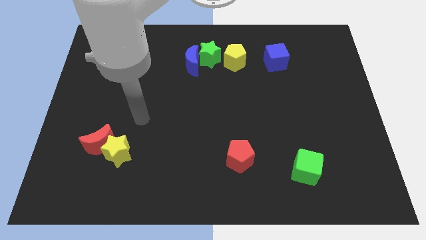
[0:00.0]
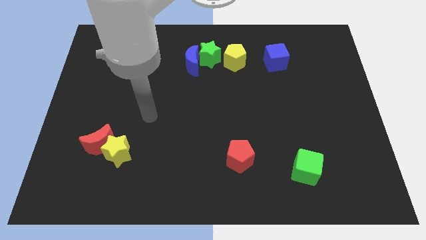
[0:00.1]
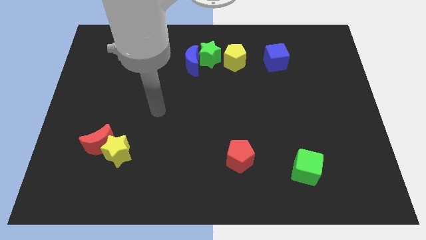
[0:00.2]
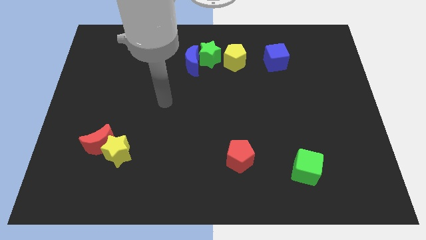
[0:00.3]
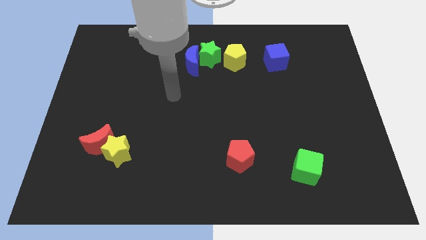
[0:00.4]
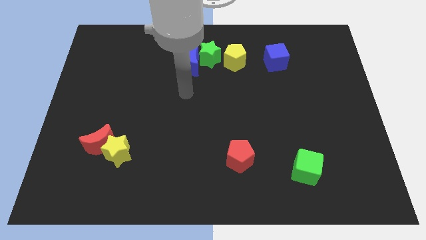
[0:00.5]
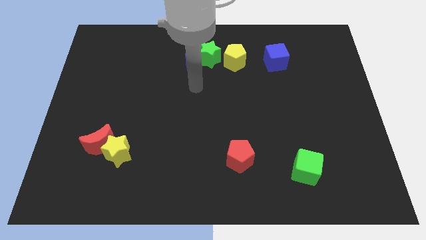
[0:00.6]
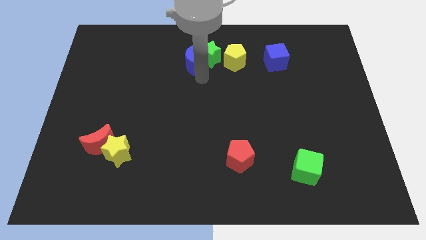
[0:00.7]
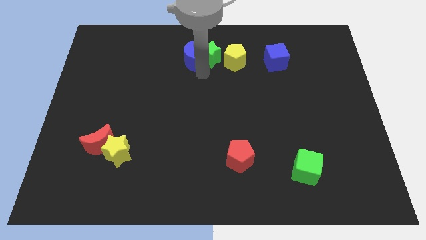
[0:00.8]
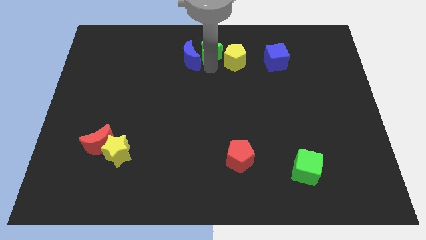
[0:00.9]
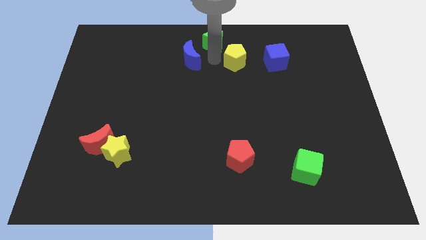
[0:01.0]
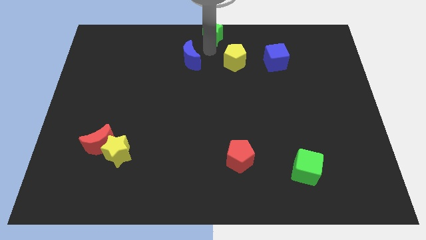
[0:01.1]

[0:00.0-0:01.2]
pull the blue moon apart from the green star

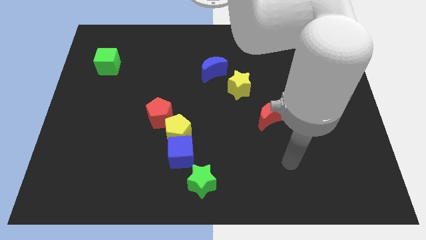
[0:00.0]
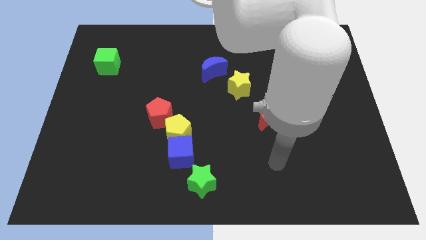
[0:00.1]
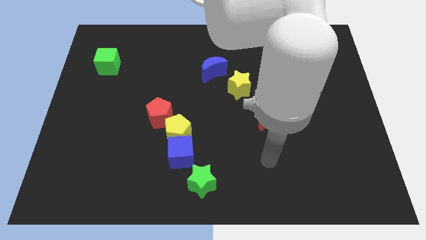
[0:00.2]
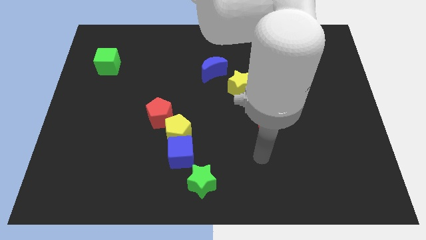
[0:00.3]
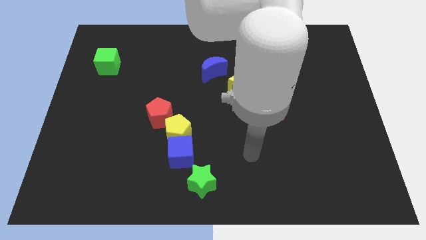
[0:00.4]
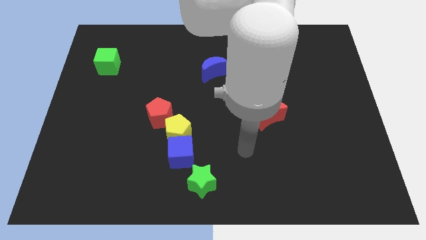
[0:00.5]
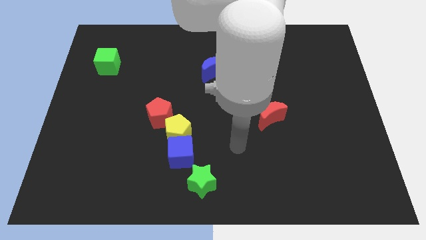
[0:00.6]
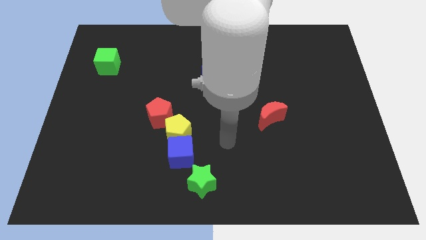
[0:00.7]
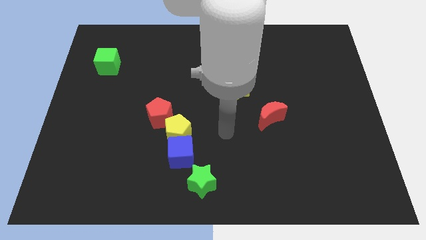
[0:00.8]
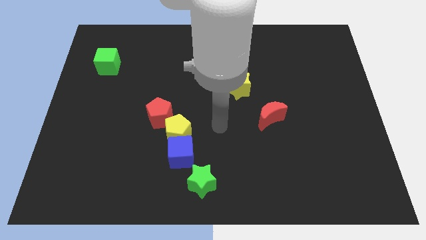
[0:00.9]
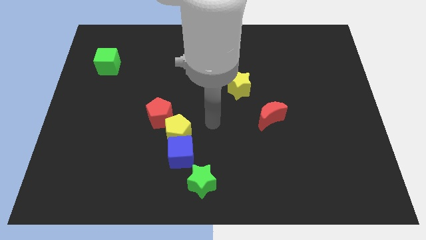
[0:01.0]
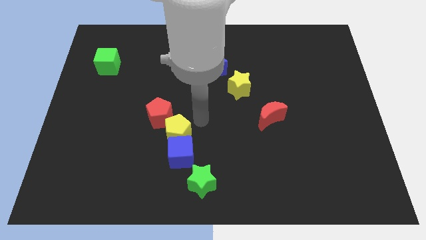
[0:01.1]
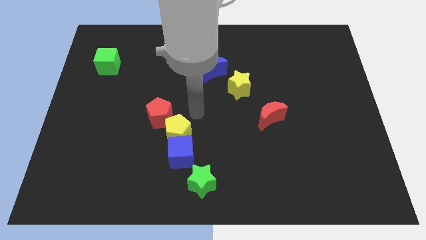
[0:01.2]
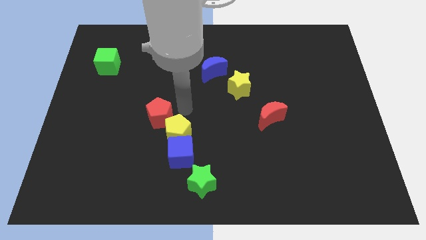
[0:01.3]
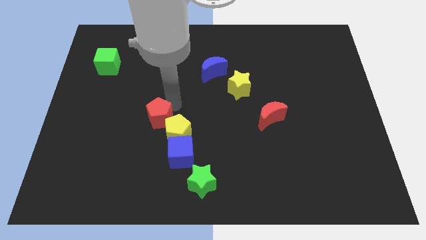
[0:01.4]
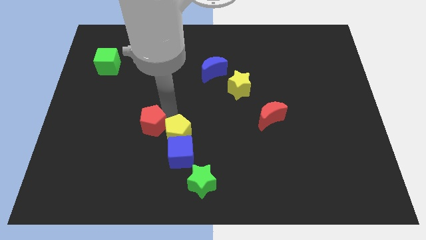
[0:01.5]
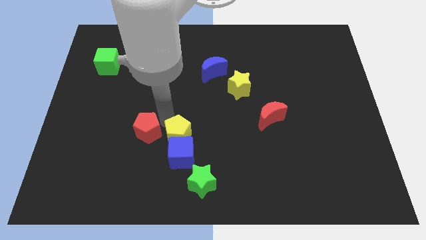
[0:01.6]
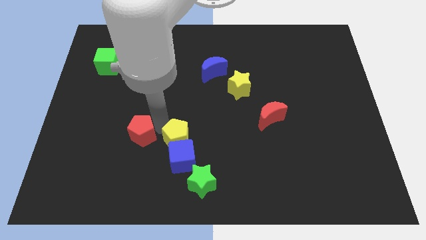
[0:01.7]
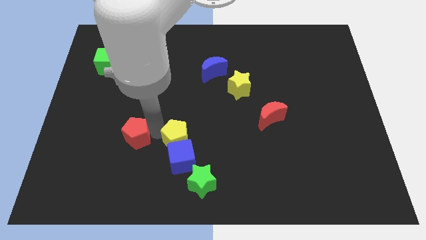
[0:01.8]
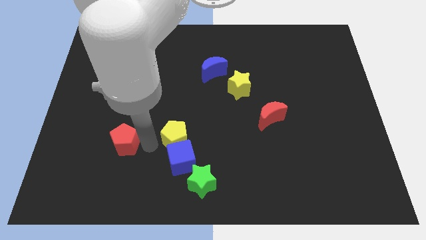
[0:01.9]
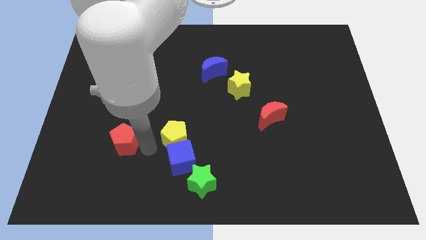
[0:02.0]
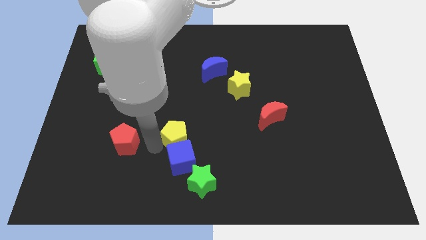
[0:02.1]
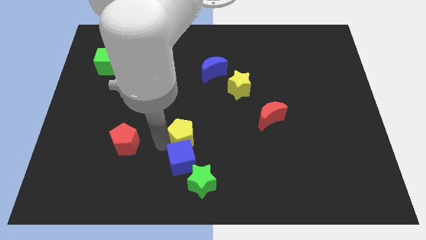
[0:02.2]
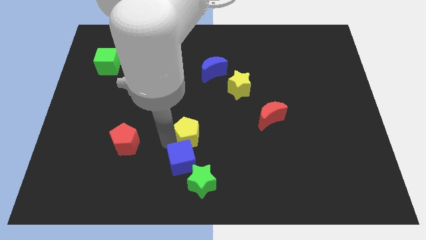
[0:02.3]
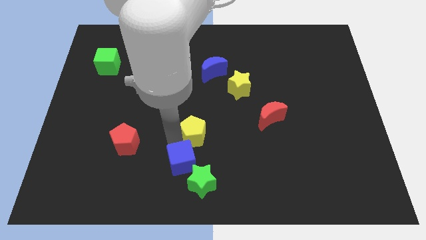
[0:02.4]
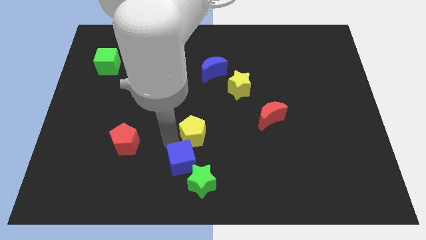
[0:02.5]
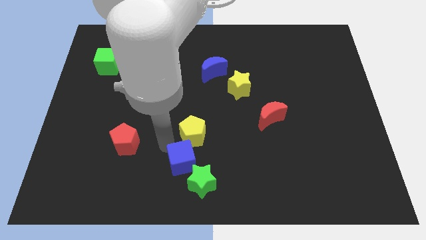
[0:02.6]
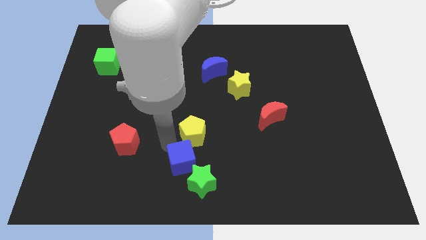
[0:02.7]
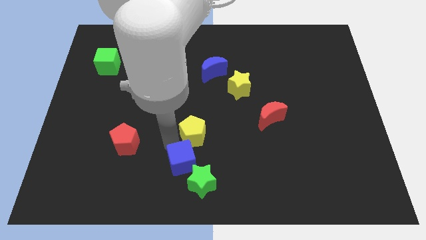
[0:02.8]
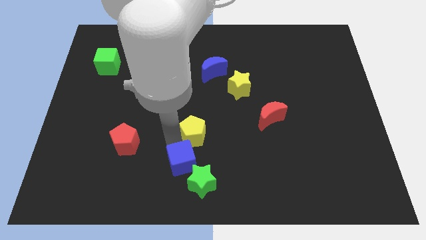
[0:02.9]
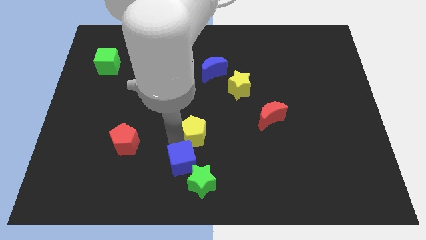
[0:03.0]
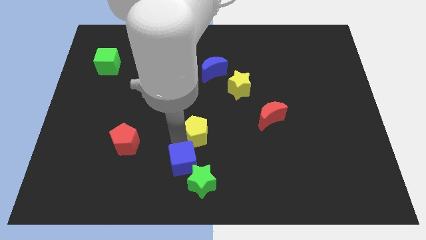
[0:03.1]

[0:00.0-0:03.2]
move the yellow pentagon away from the blue cube and red pentagon

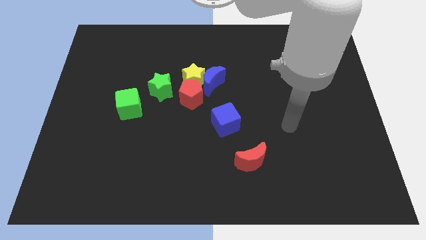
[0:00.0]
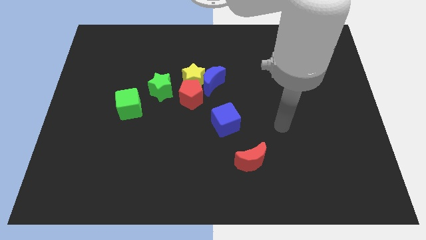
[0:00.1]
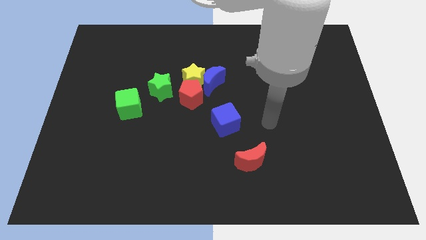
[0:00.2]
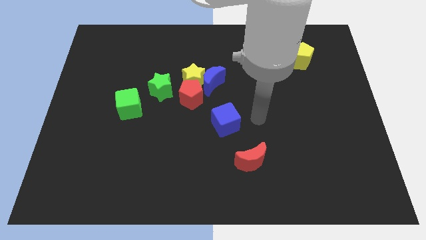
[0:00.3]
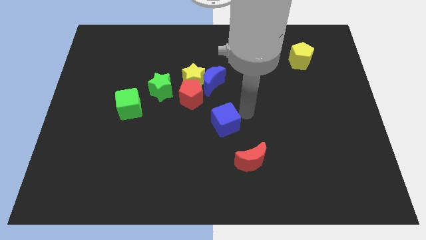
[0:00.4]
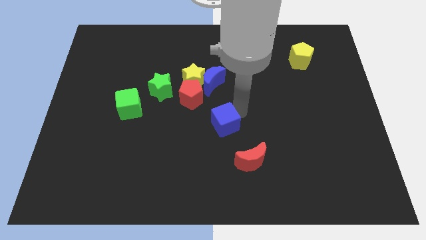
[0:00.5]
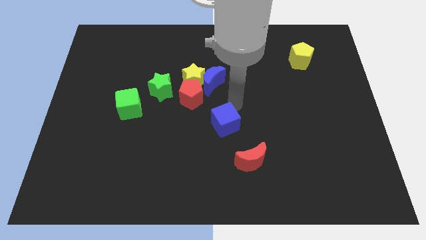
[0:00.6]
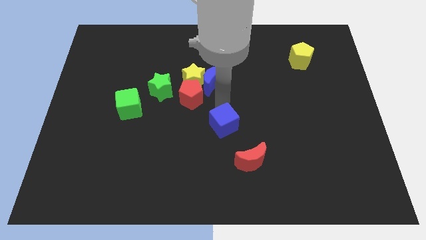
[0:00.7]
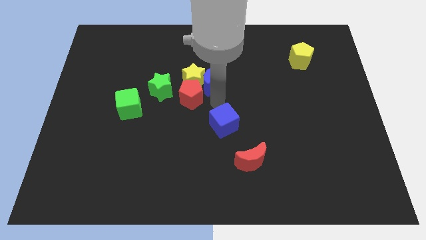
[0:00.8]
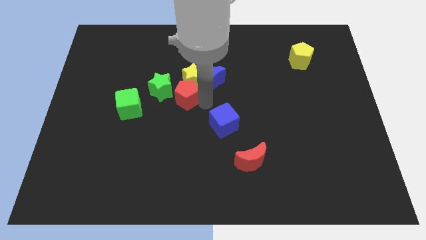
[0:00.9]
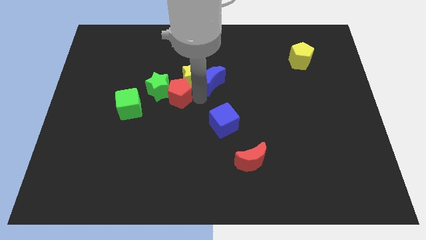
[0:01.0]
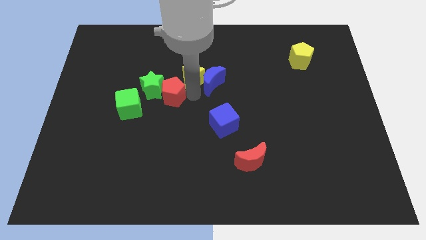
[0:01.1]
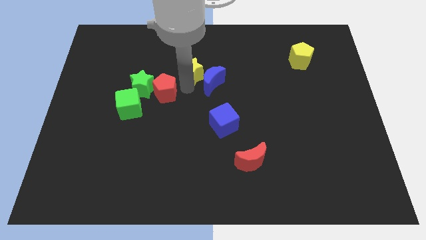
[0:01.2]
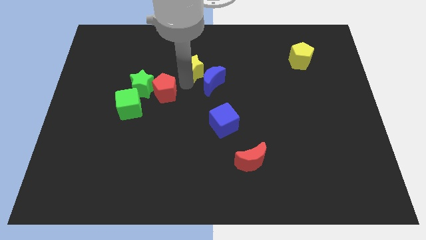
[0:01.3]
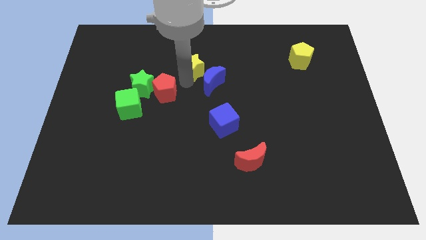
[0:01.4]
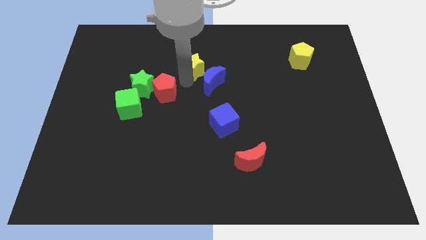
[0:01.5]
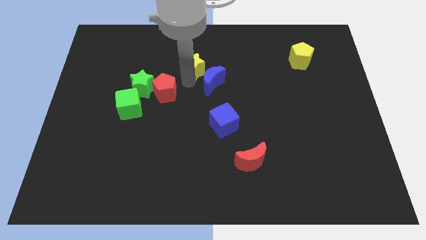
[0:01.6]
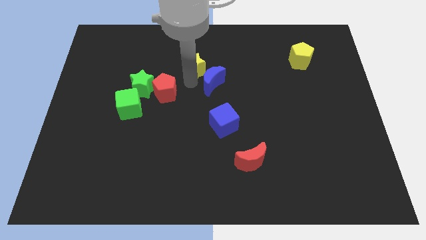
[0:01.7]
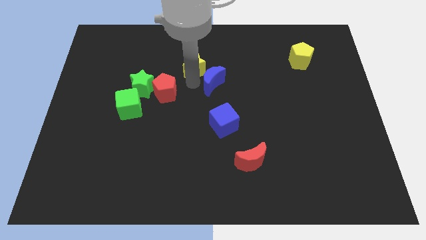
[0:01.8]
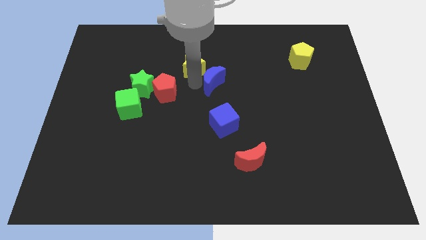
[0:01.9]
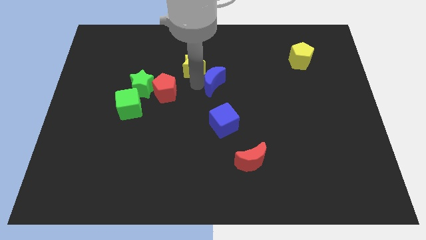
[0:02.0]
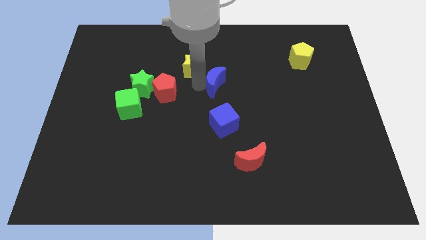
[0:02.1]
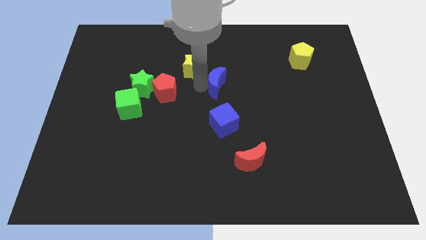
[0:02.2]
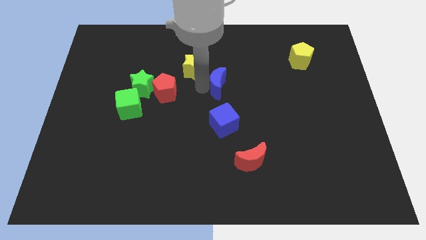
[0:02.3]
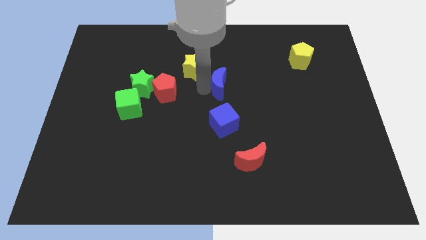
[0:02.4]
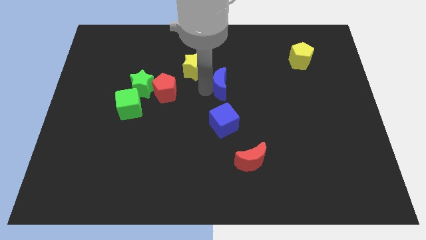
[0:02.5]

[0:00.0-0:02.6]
pull the blue moon apart from the yellow star and red pentagon

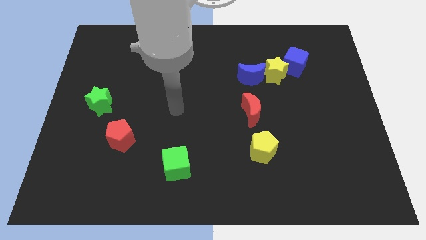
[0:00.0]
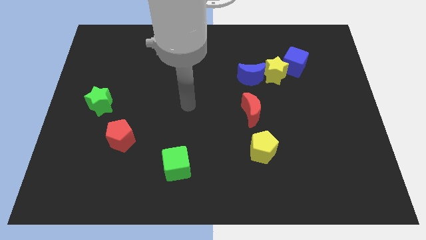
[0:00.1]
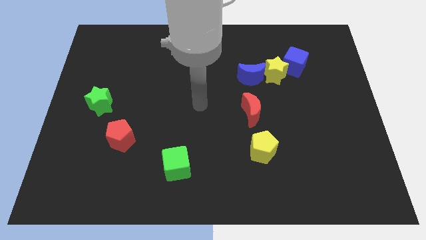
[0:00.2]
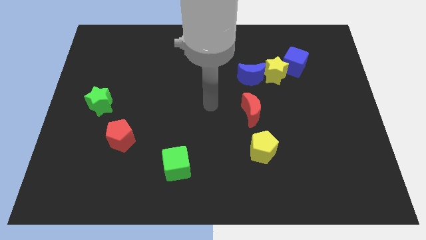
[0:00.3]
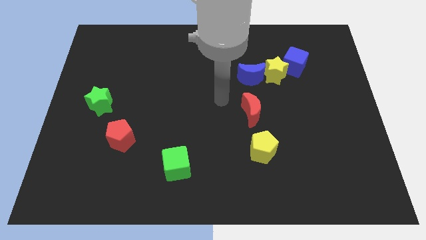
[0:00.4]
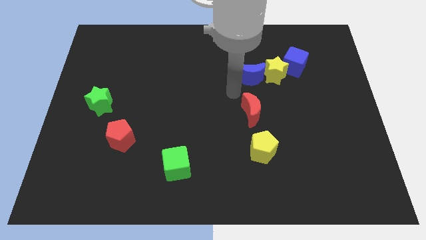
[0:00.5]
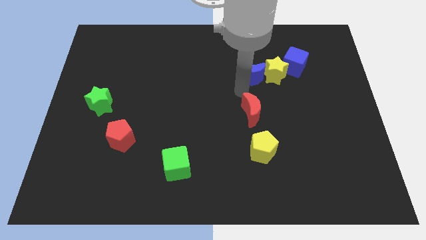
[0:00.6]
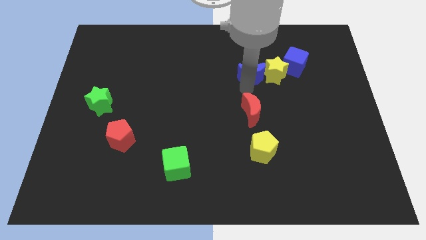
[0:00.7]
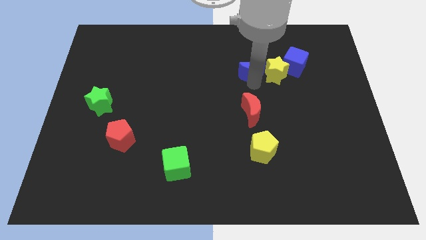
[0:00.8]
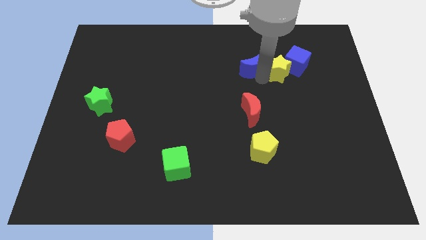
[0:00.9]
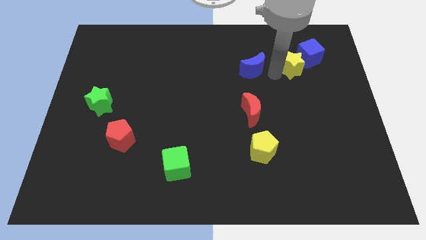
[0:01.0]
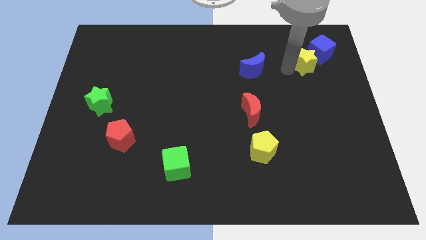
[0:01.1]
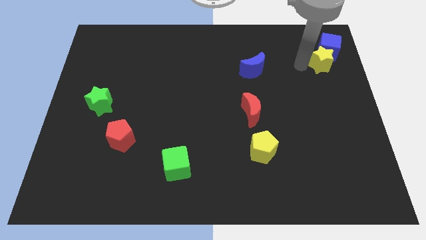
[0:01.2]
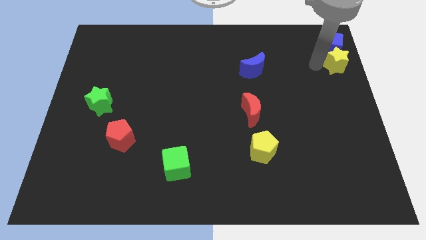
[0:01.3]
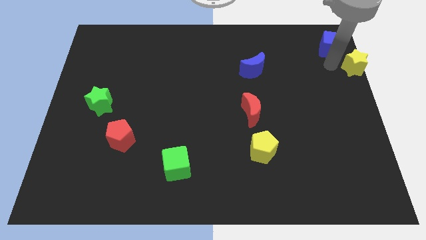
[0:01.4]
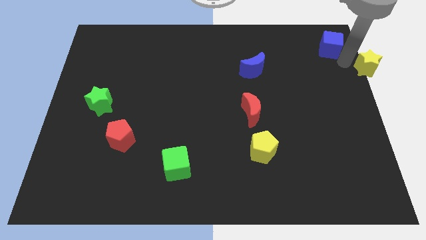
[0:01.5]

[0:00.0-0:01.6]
separate the blue cube from the yellow star

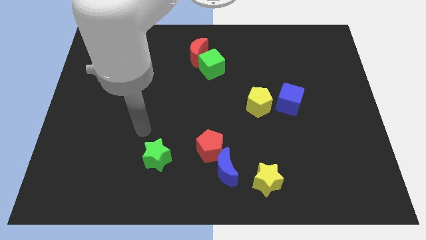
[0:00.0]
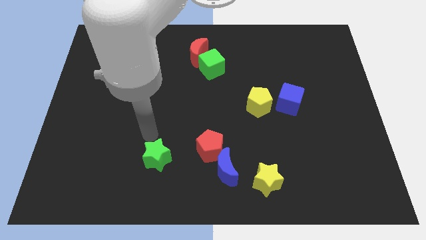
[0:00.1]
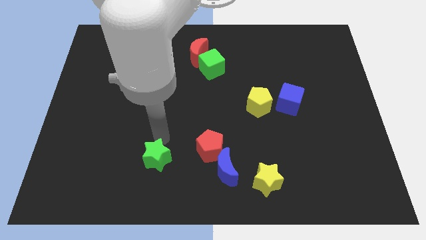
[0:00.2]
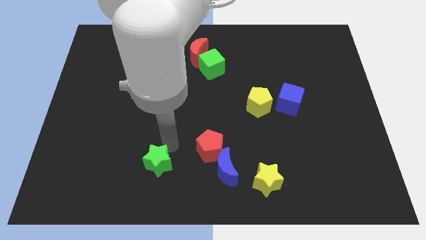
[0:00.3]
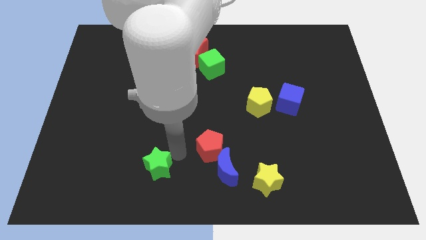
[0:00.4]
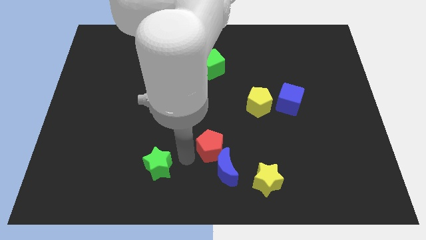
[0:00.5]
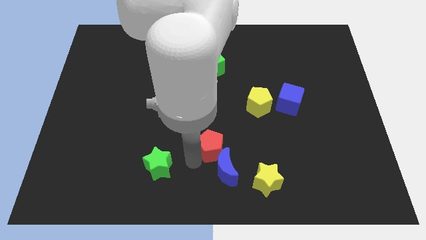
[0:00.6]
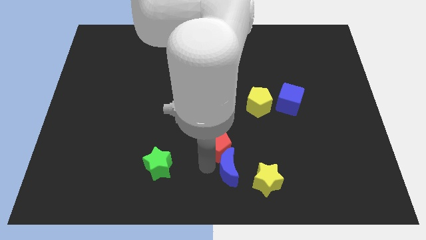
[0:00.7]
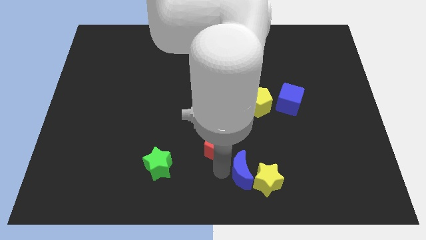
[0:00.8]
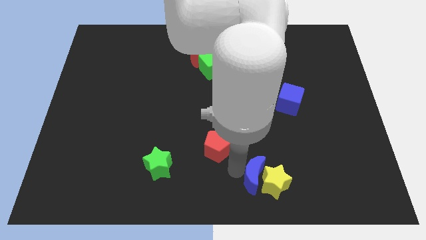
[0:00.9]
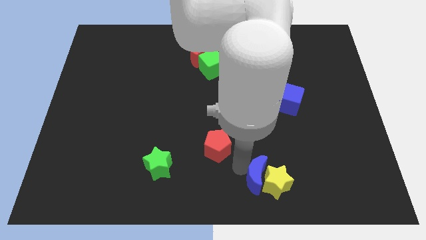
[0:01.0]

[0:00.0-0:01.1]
separate the red pentagon from the blue moon
